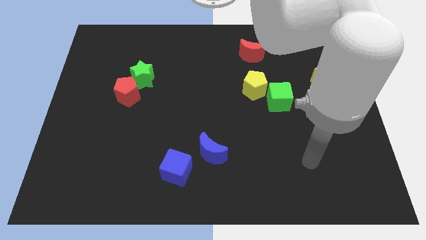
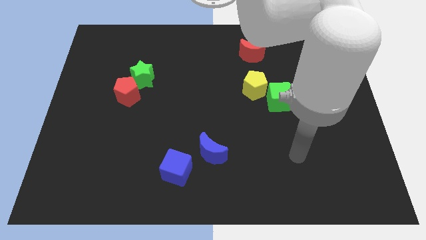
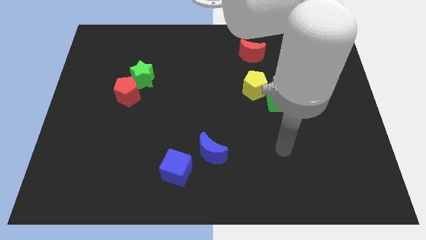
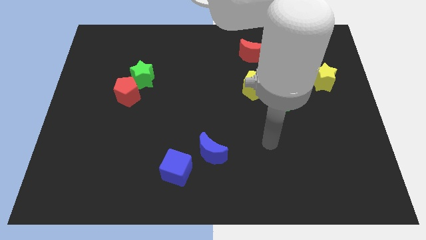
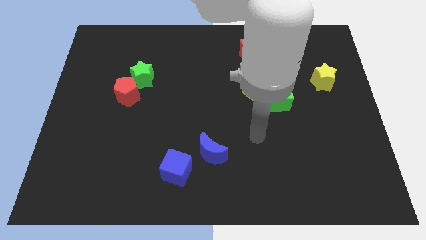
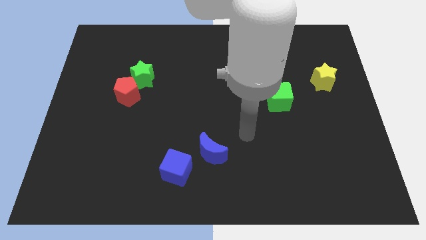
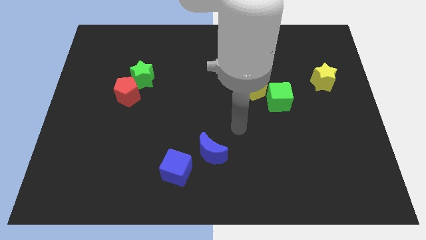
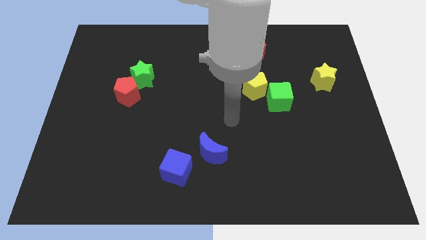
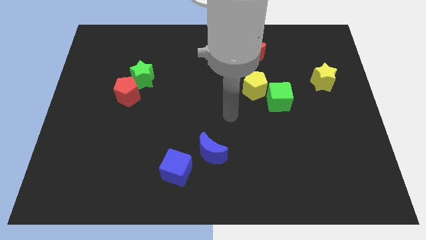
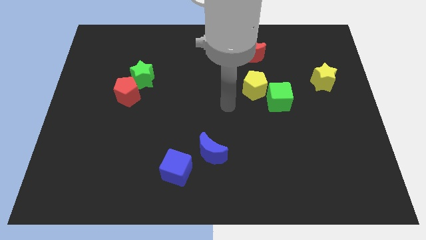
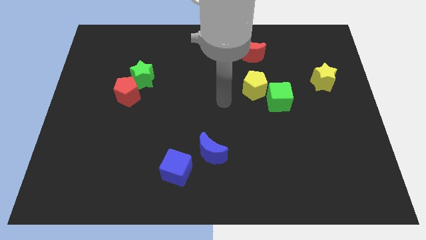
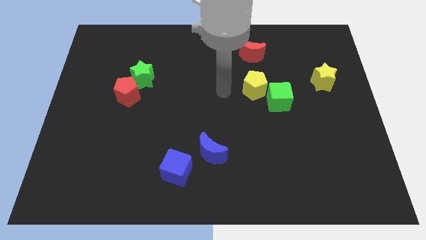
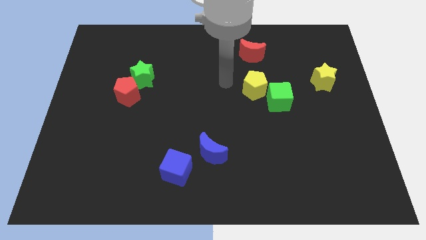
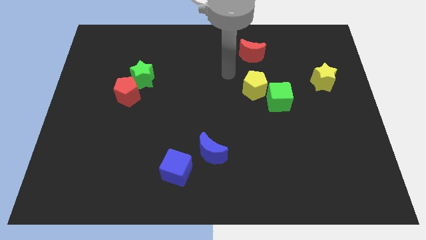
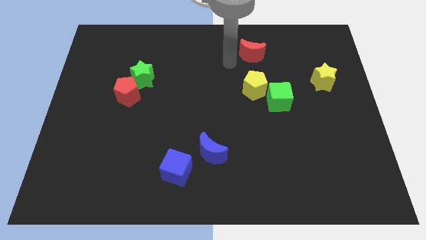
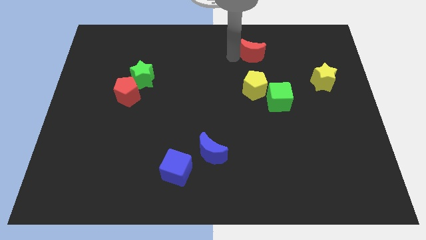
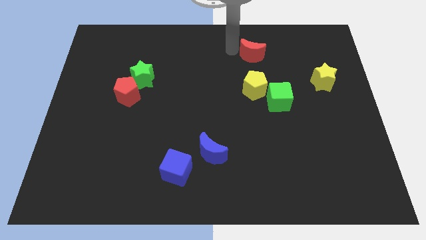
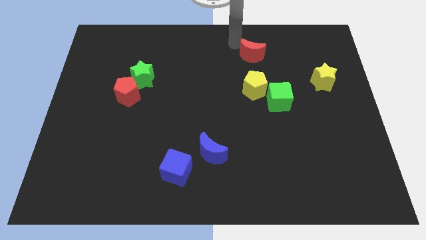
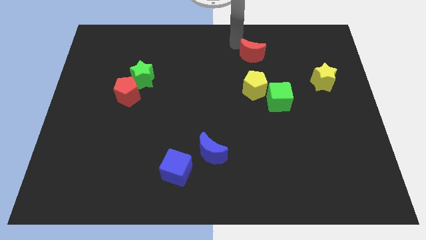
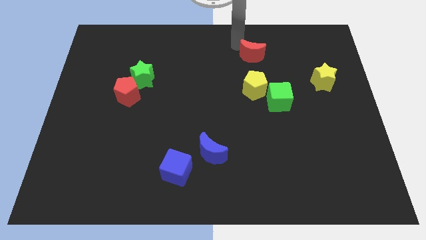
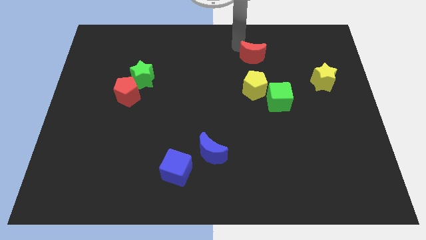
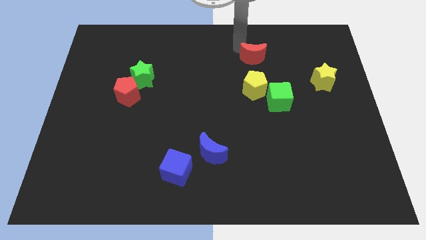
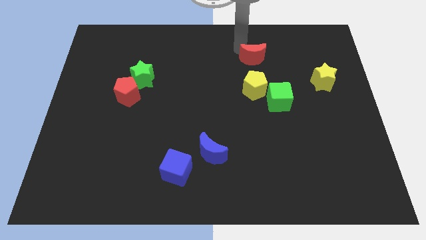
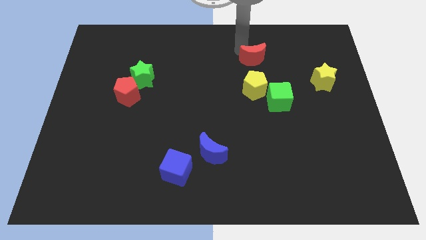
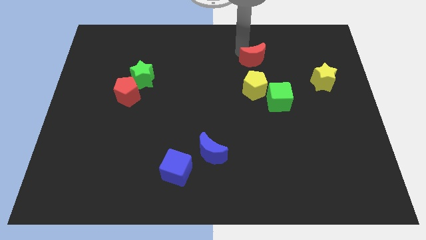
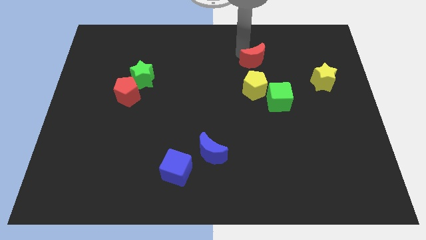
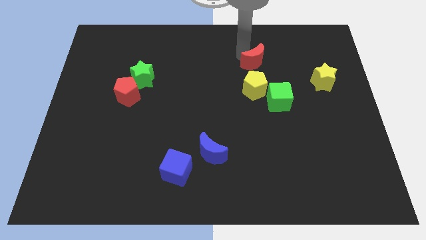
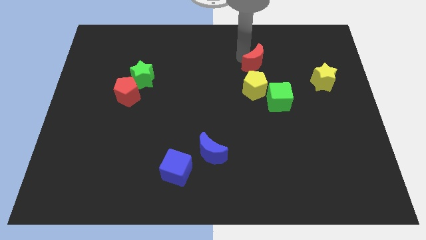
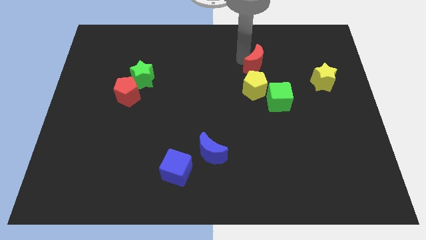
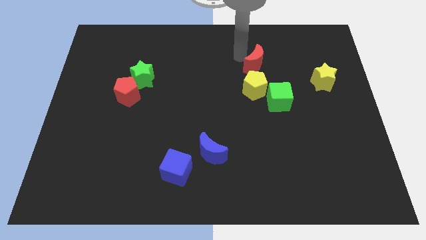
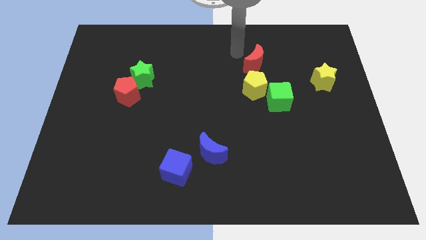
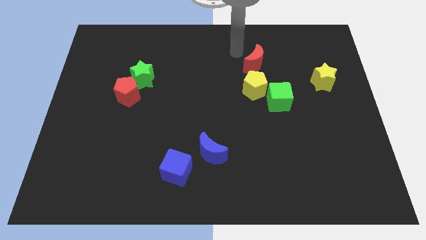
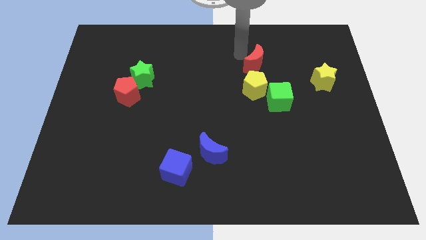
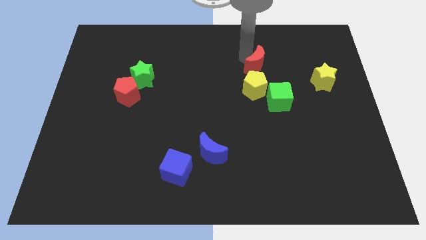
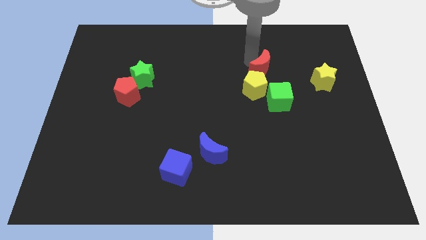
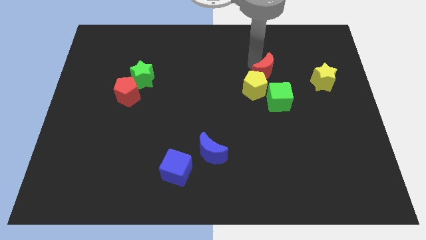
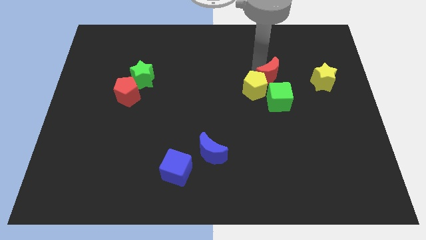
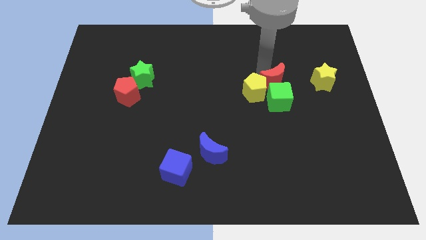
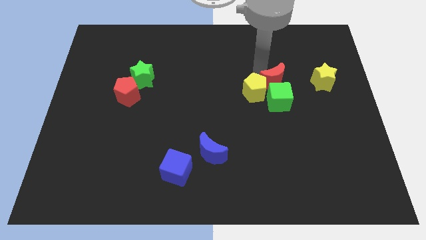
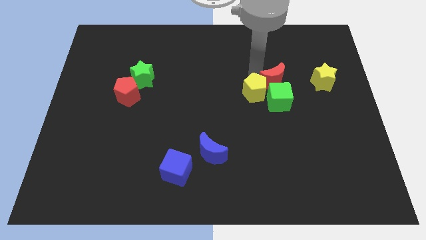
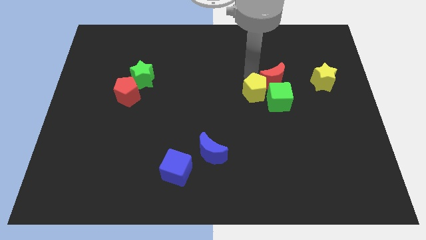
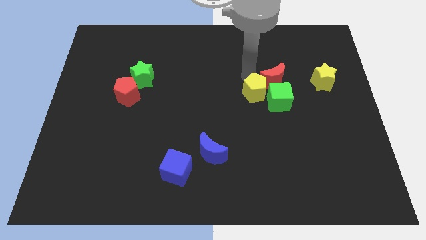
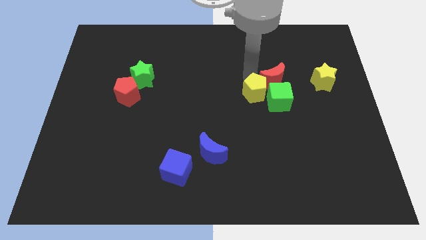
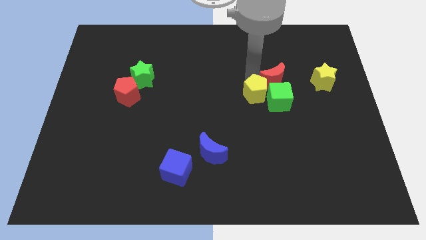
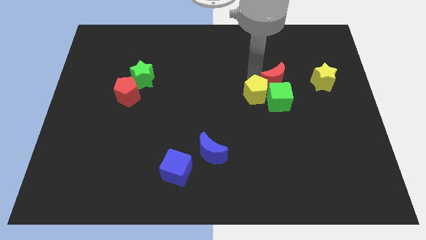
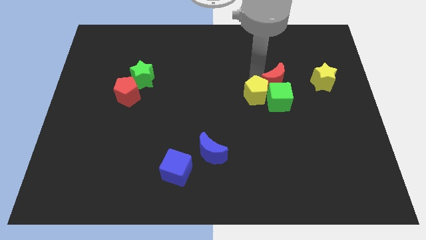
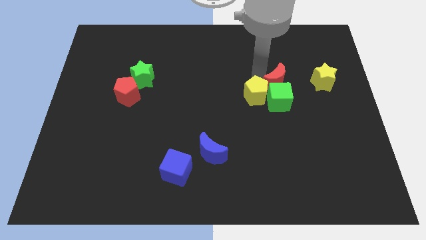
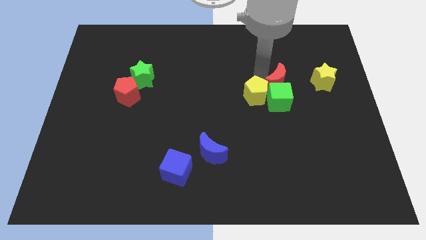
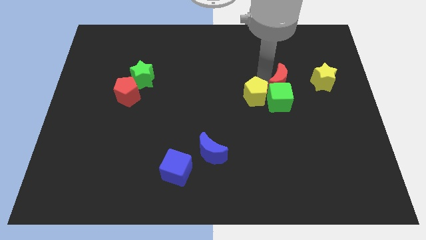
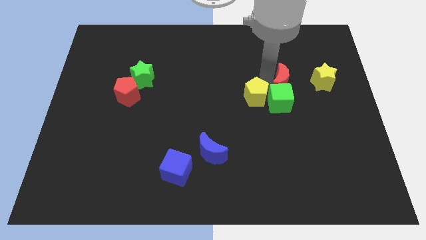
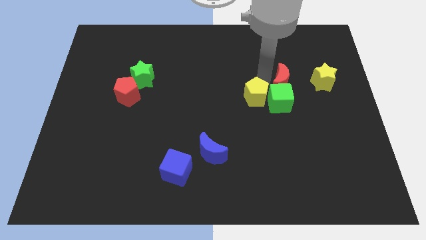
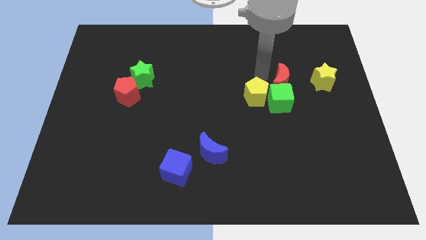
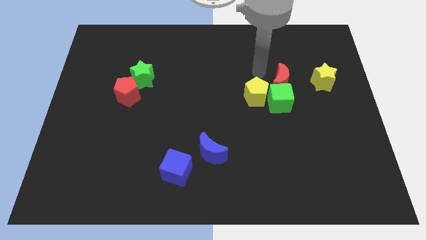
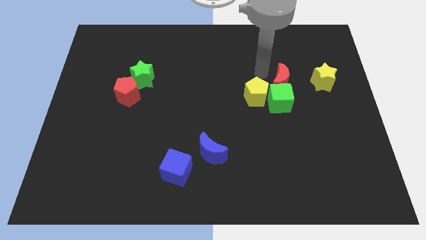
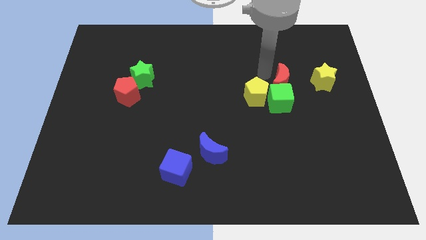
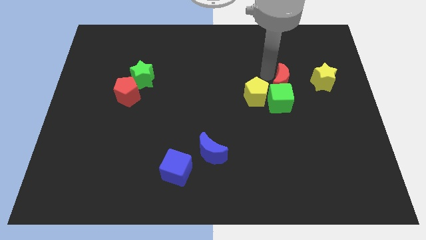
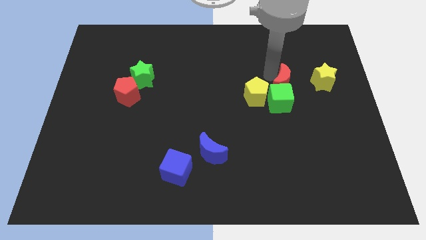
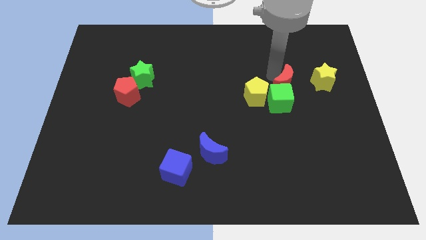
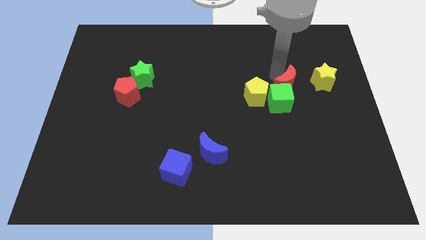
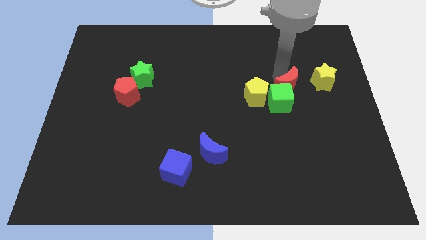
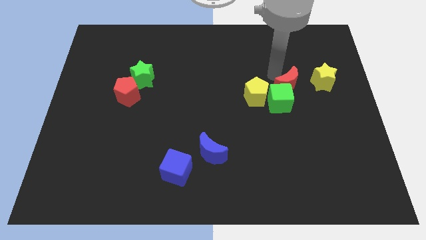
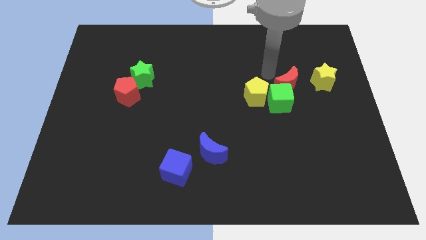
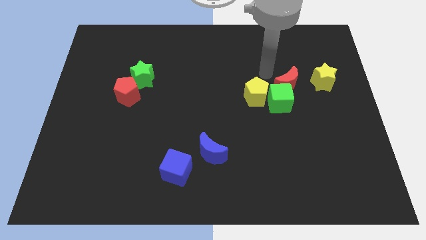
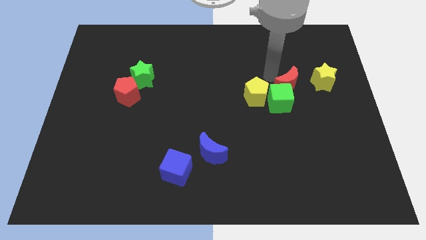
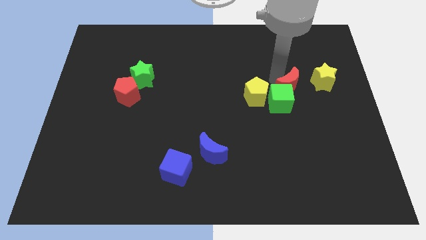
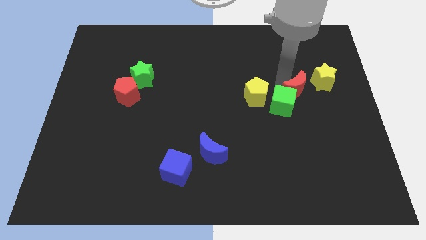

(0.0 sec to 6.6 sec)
move the red moon diagonally down and to the left of the yellow star
